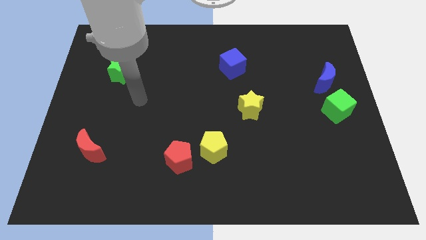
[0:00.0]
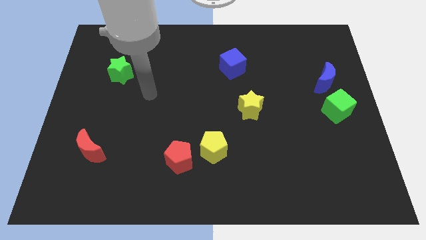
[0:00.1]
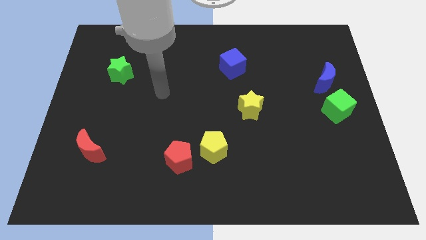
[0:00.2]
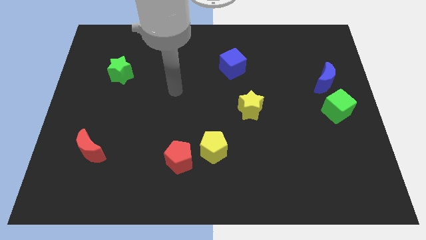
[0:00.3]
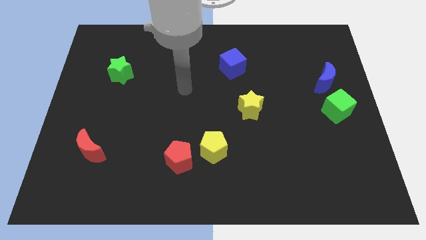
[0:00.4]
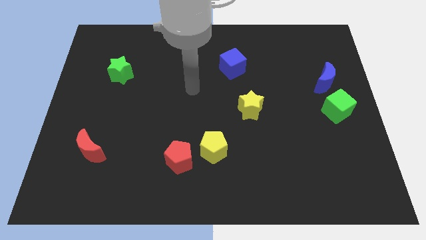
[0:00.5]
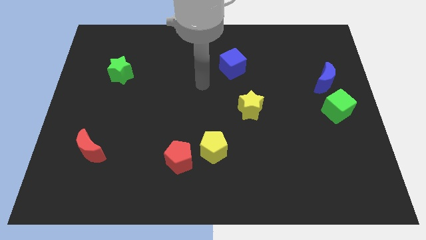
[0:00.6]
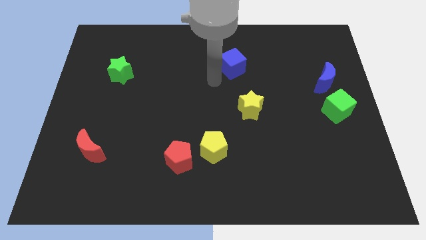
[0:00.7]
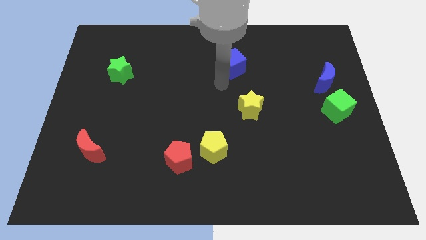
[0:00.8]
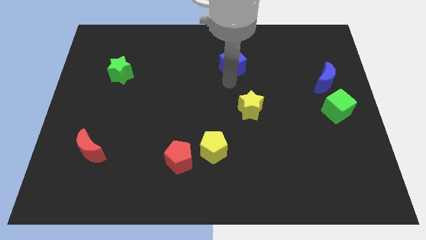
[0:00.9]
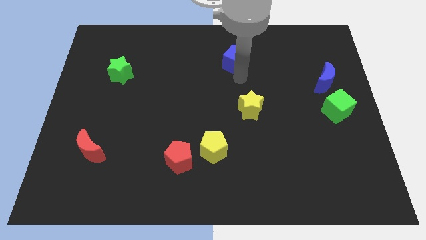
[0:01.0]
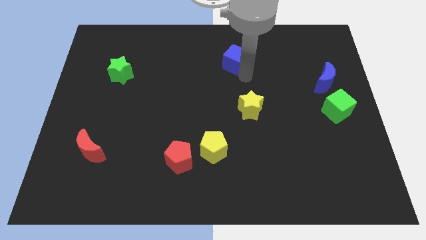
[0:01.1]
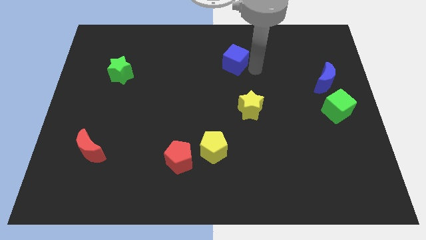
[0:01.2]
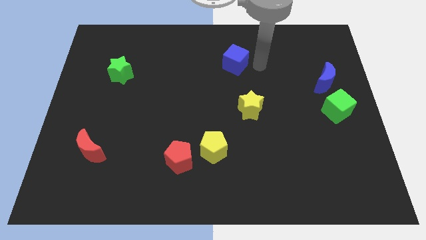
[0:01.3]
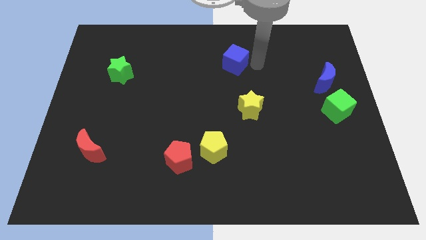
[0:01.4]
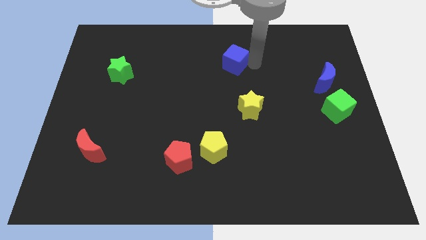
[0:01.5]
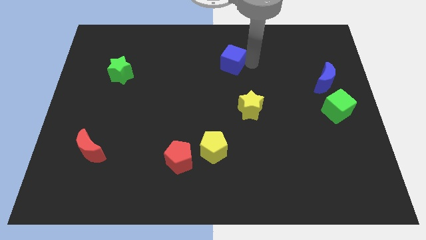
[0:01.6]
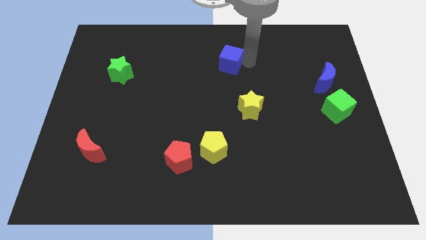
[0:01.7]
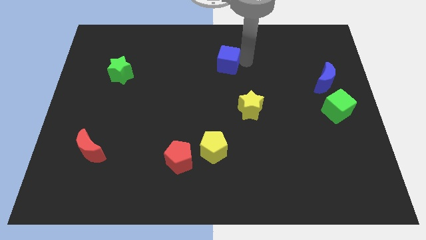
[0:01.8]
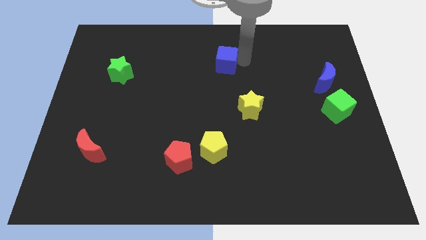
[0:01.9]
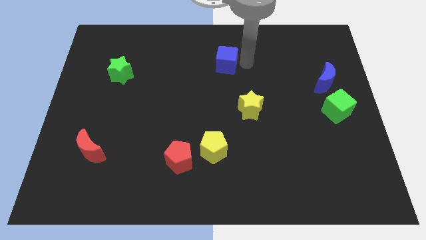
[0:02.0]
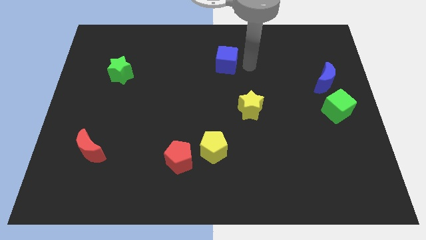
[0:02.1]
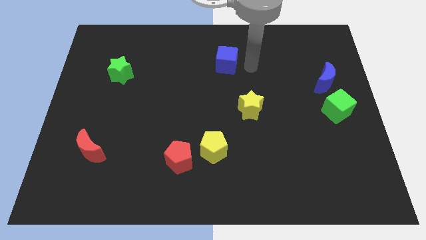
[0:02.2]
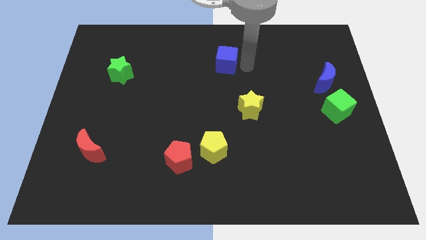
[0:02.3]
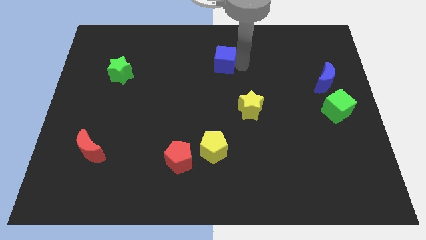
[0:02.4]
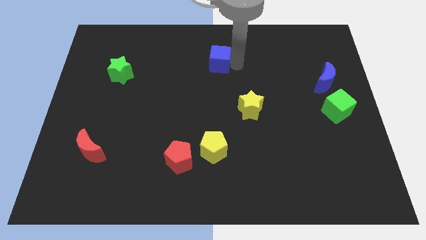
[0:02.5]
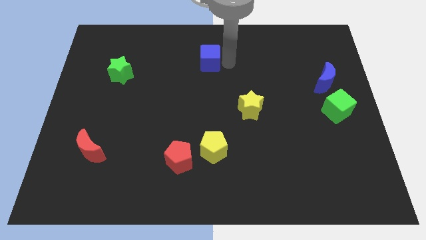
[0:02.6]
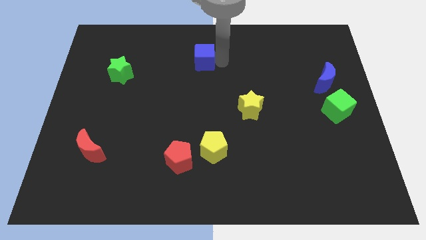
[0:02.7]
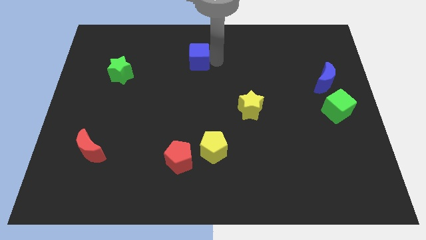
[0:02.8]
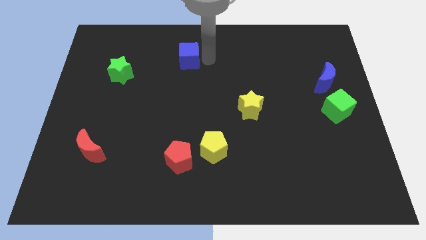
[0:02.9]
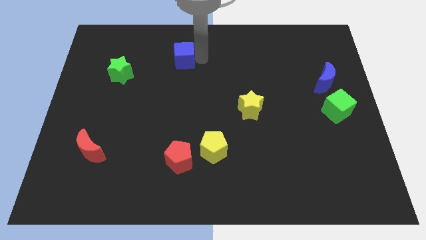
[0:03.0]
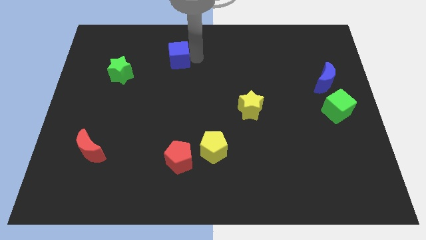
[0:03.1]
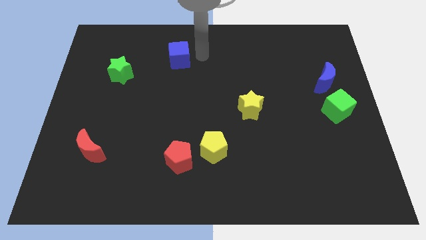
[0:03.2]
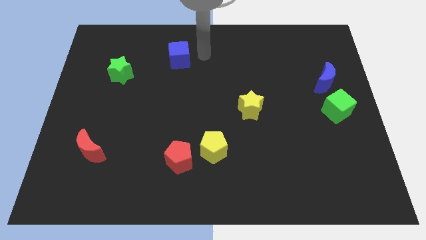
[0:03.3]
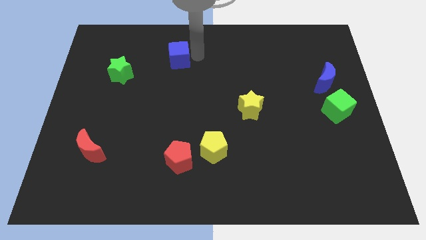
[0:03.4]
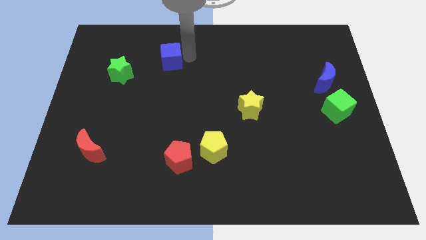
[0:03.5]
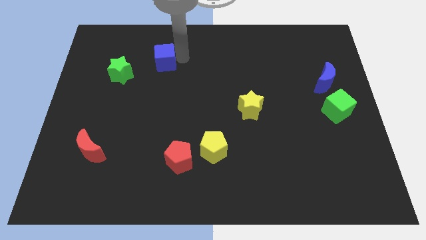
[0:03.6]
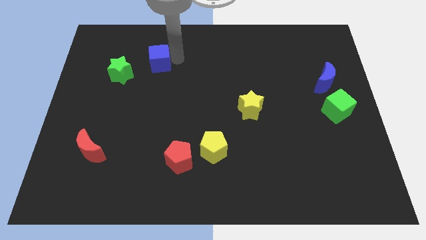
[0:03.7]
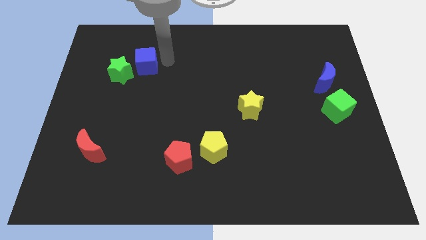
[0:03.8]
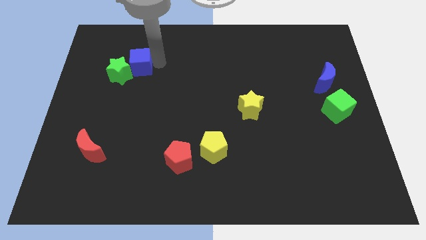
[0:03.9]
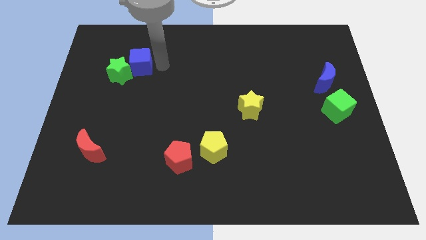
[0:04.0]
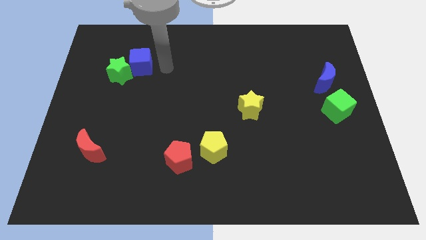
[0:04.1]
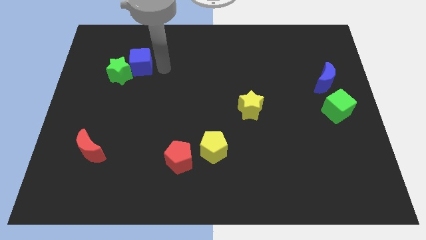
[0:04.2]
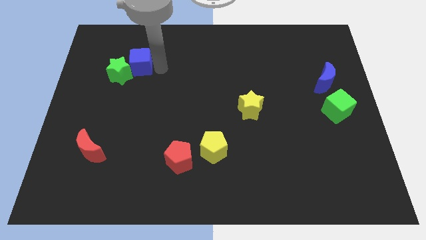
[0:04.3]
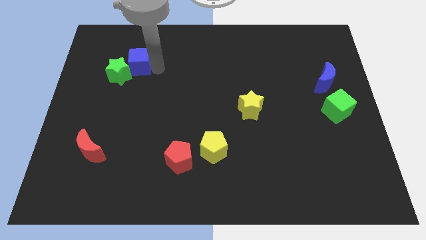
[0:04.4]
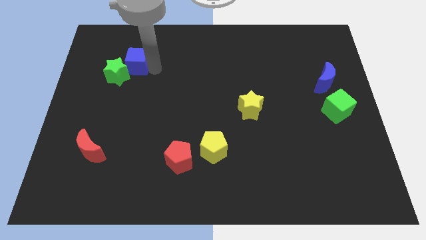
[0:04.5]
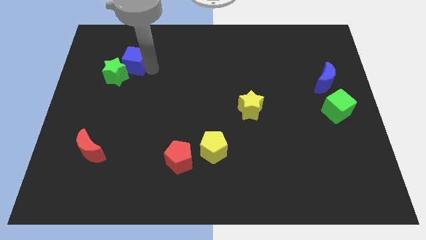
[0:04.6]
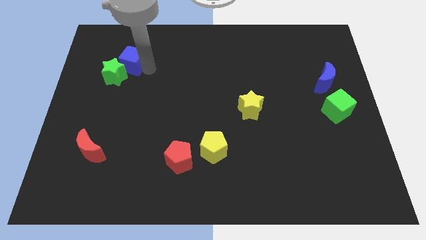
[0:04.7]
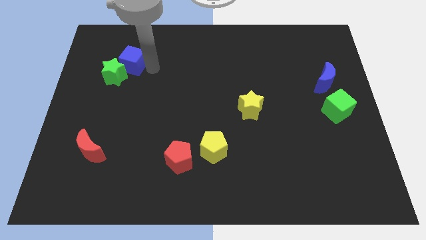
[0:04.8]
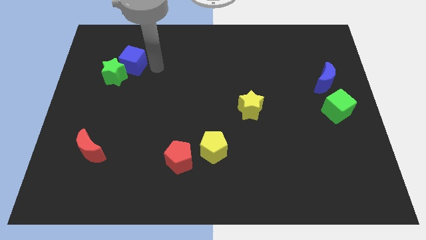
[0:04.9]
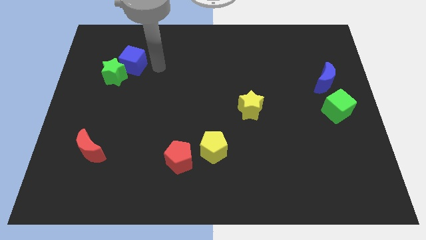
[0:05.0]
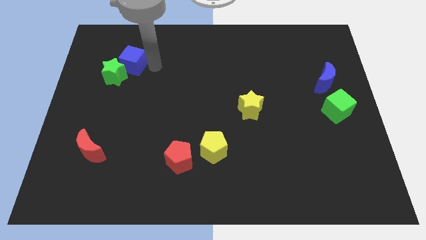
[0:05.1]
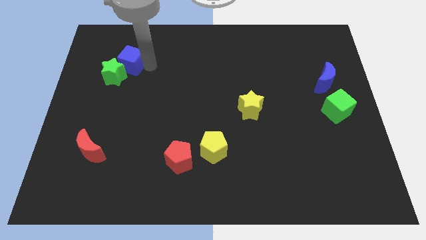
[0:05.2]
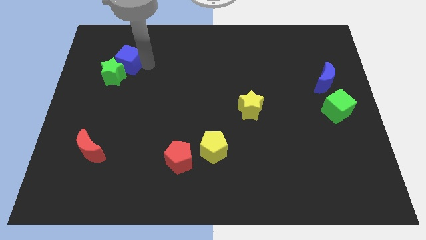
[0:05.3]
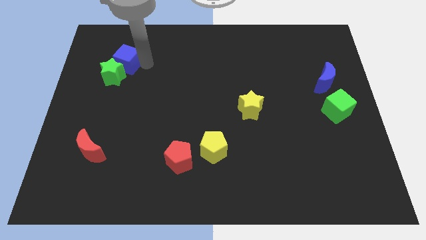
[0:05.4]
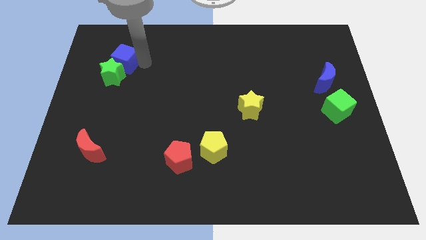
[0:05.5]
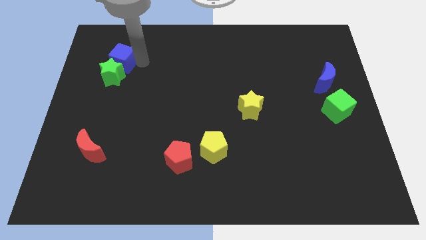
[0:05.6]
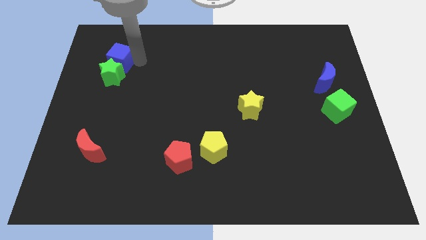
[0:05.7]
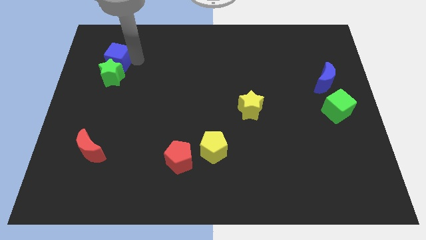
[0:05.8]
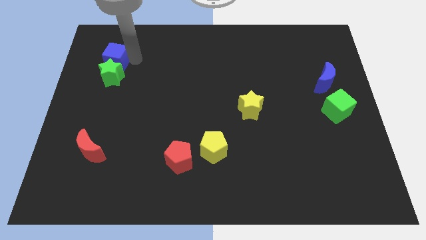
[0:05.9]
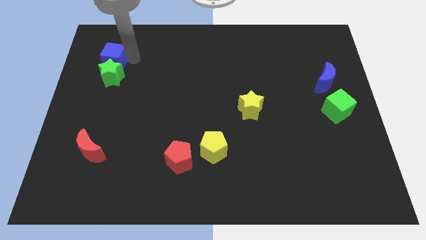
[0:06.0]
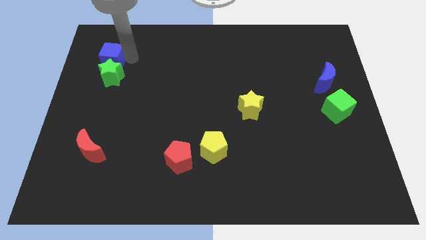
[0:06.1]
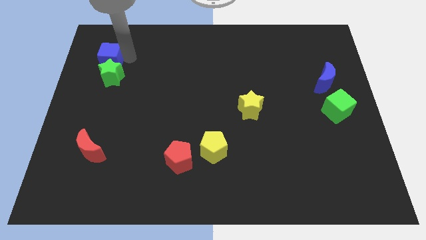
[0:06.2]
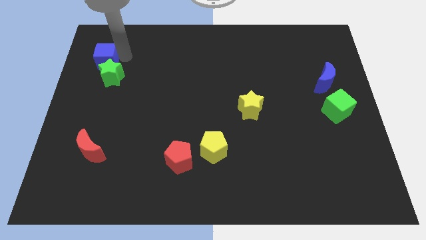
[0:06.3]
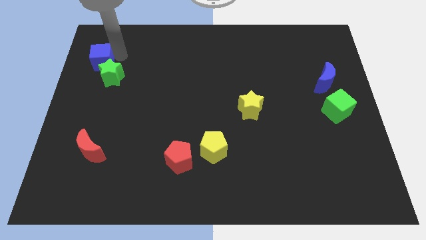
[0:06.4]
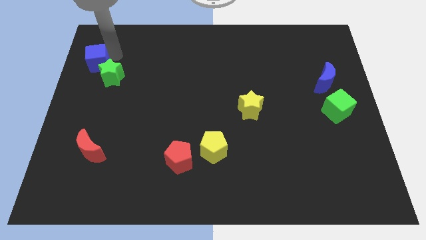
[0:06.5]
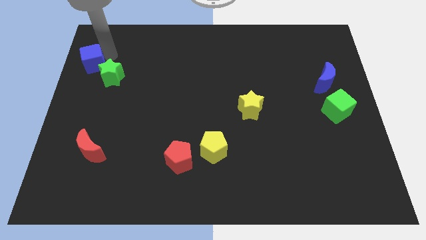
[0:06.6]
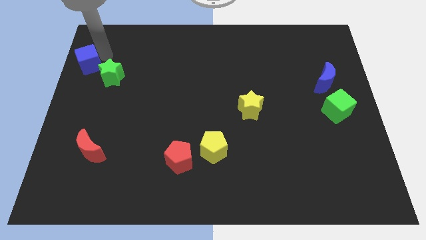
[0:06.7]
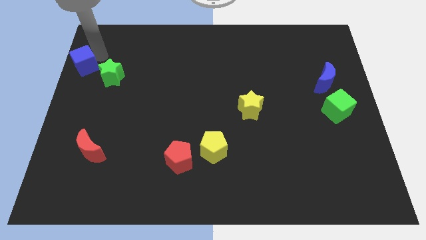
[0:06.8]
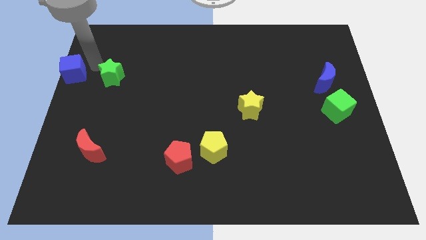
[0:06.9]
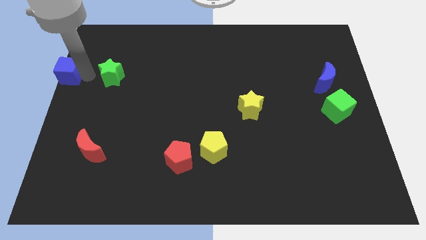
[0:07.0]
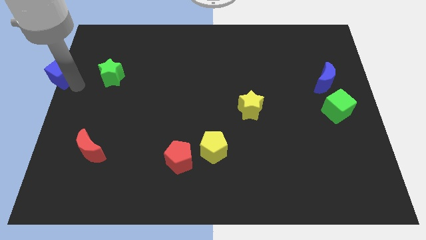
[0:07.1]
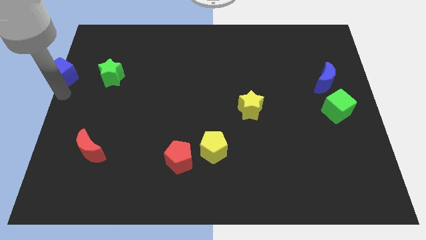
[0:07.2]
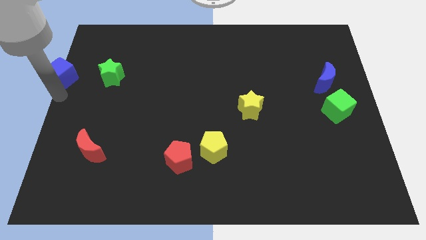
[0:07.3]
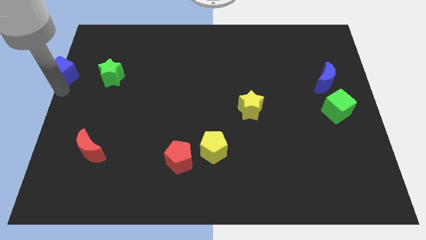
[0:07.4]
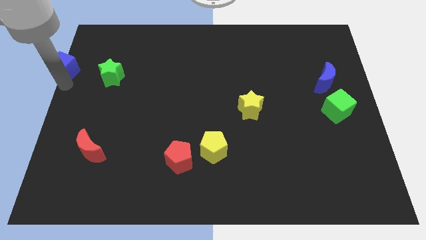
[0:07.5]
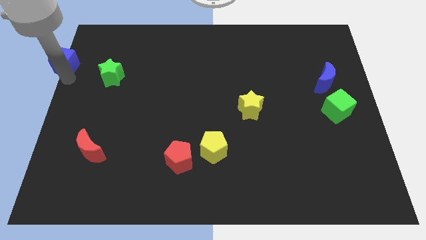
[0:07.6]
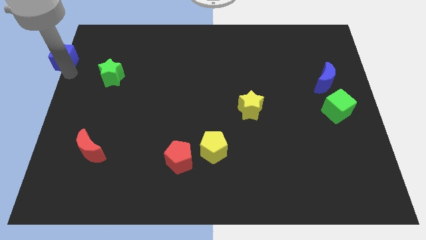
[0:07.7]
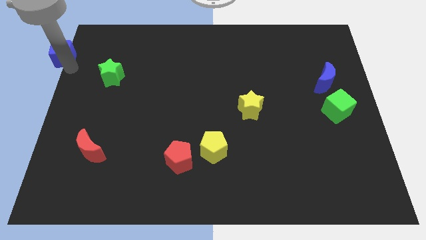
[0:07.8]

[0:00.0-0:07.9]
push the blue cube to the top left of the board
